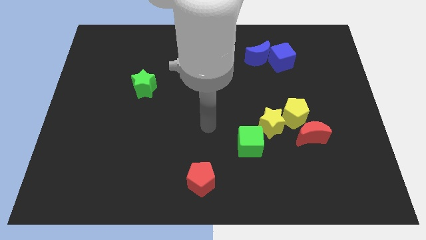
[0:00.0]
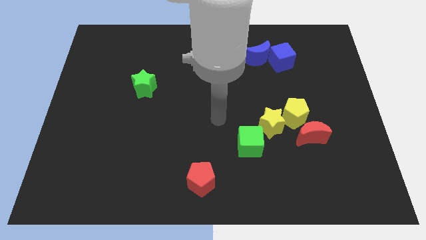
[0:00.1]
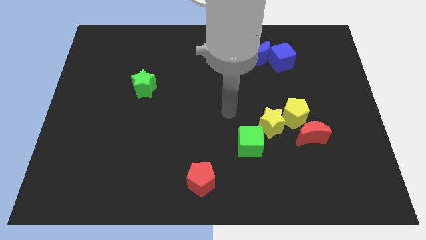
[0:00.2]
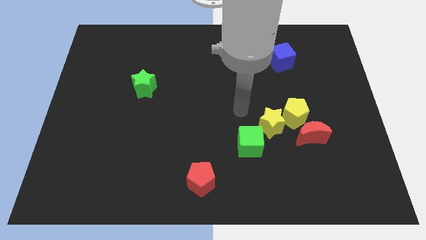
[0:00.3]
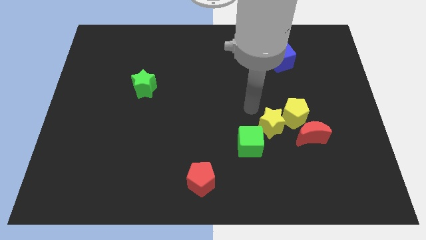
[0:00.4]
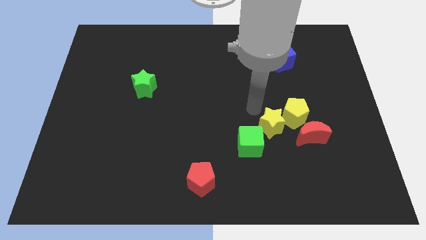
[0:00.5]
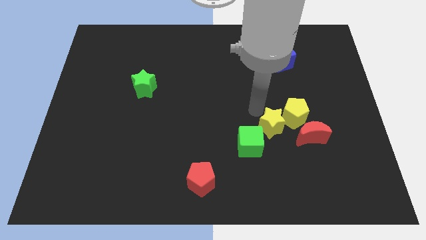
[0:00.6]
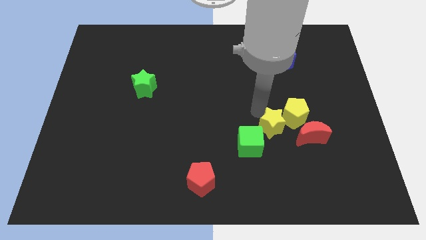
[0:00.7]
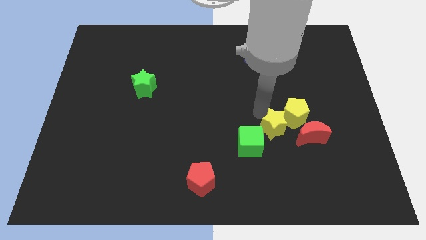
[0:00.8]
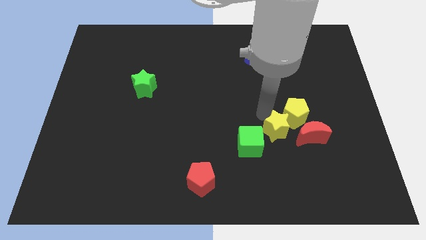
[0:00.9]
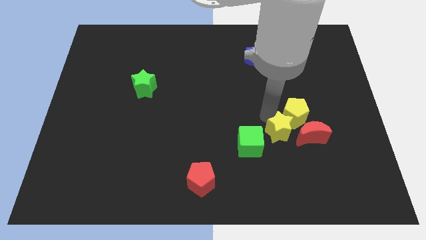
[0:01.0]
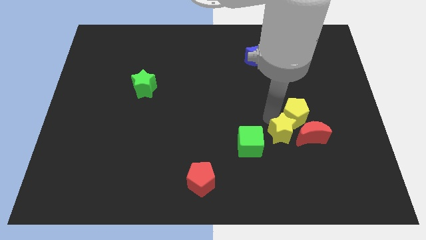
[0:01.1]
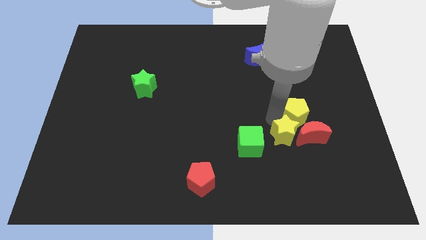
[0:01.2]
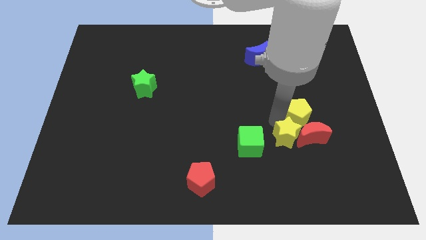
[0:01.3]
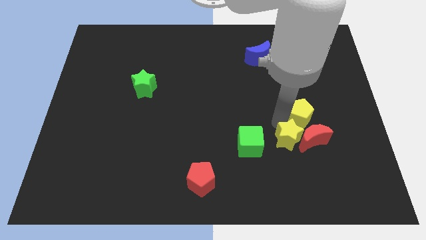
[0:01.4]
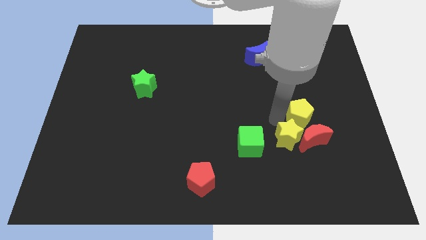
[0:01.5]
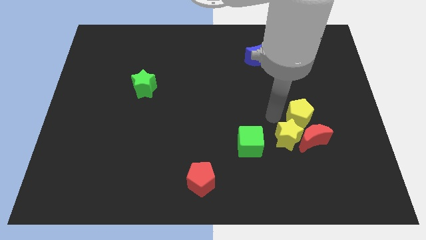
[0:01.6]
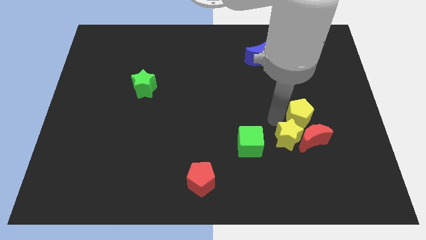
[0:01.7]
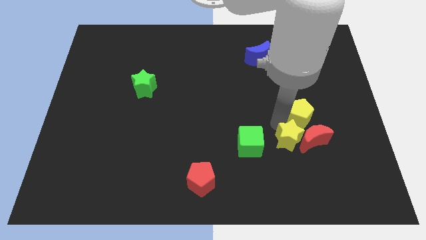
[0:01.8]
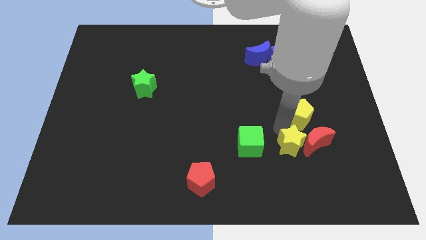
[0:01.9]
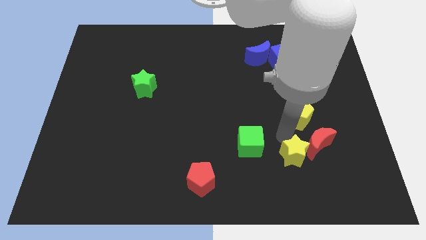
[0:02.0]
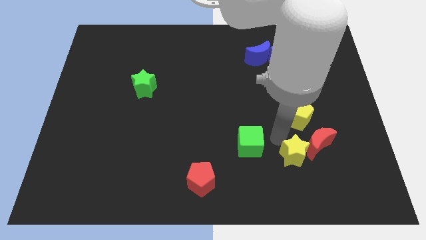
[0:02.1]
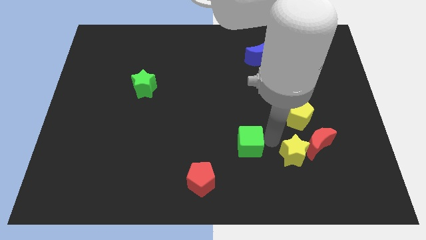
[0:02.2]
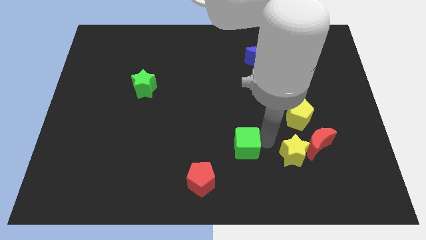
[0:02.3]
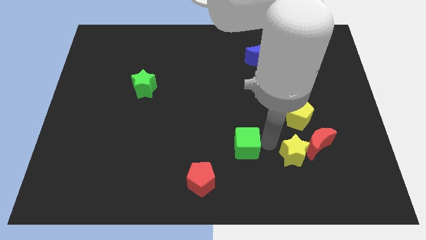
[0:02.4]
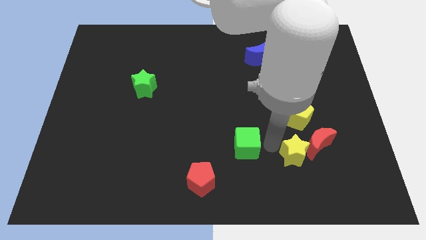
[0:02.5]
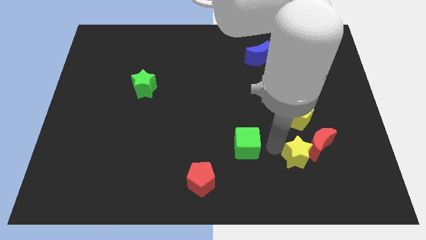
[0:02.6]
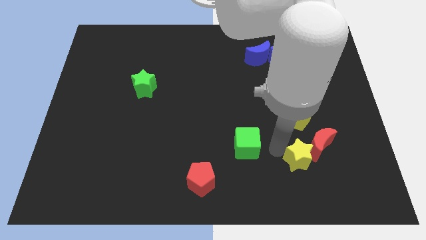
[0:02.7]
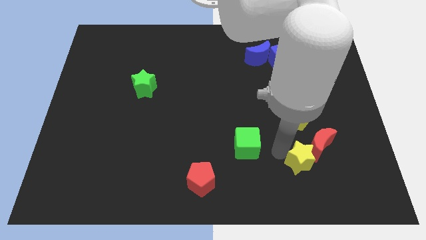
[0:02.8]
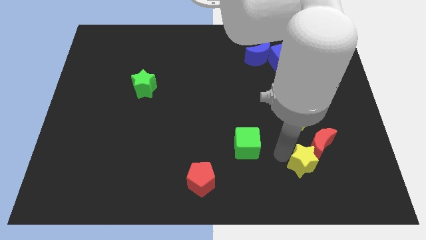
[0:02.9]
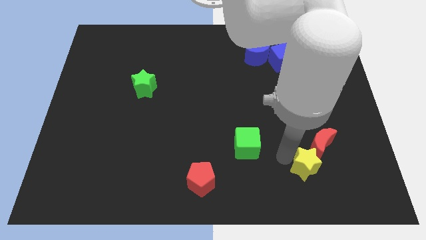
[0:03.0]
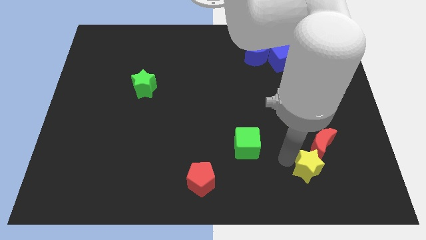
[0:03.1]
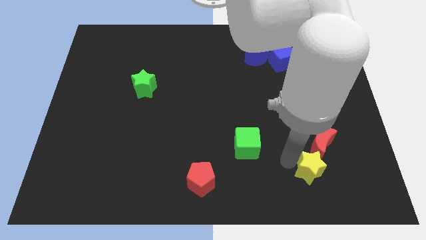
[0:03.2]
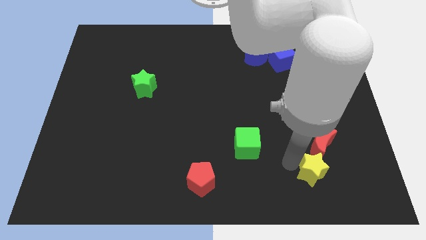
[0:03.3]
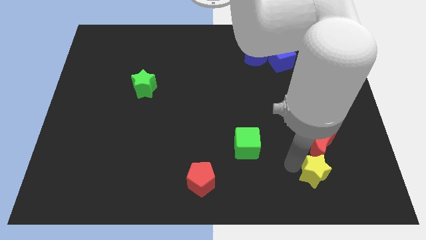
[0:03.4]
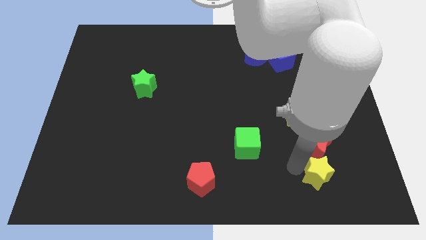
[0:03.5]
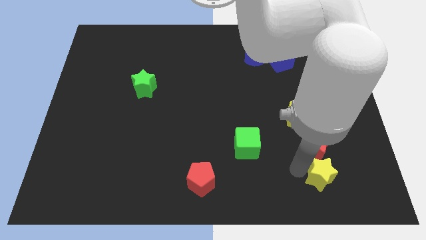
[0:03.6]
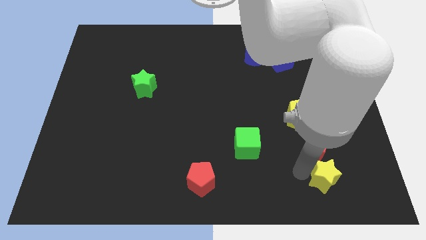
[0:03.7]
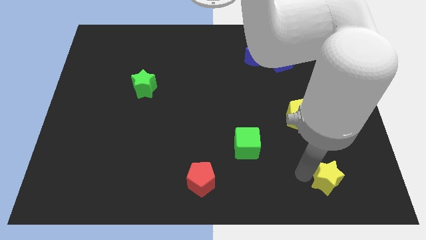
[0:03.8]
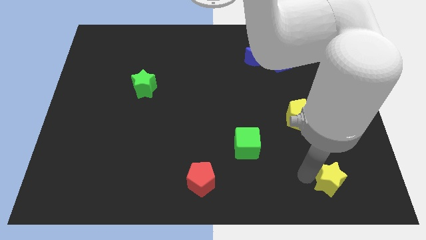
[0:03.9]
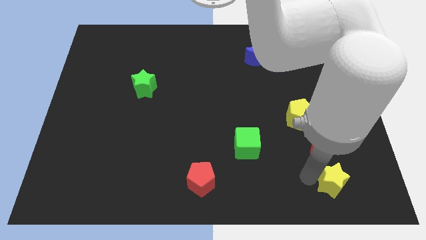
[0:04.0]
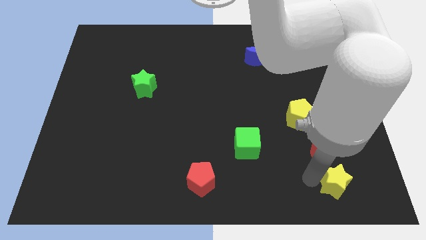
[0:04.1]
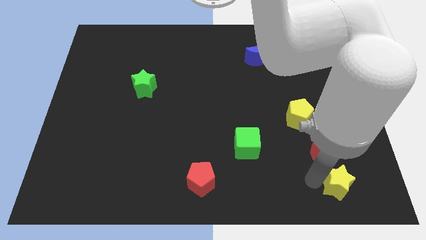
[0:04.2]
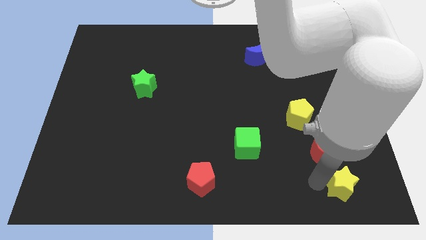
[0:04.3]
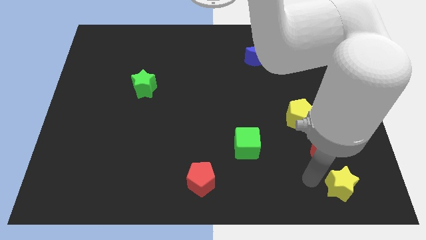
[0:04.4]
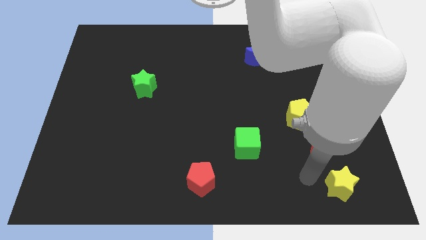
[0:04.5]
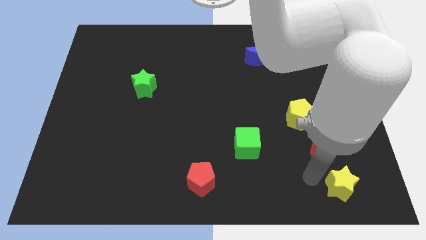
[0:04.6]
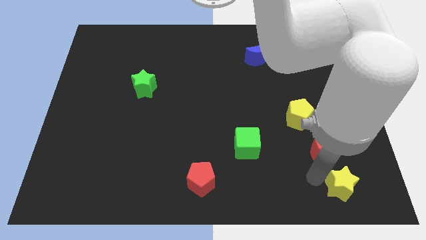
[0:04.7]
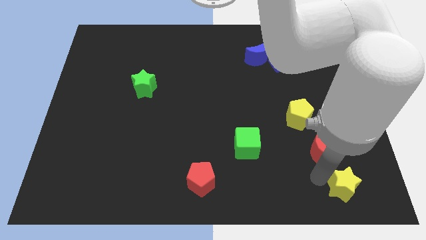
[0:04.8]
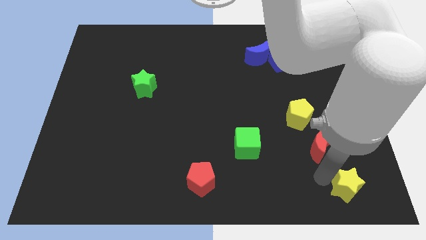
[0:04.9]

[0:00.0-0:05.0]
move the yellow star to the lower right corner

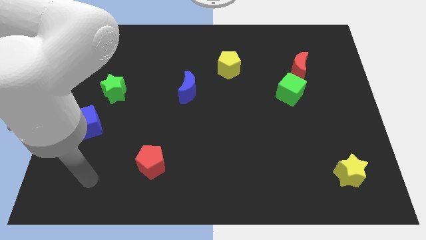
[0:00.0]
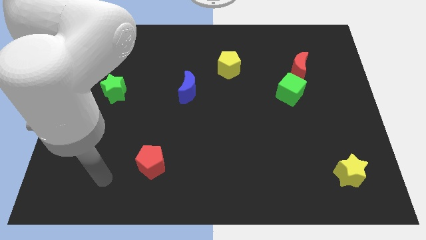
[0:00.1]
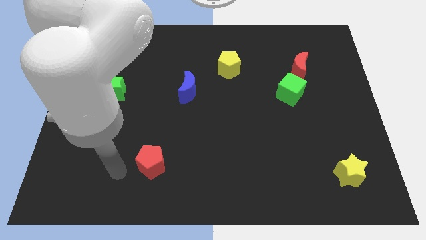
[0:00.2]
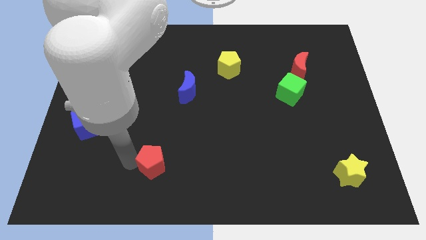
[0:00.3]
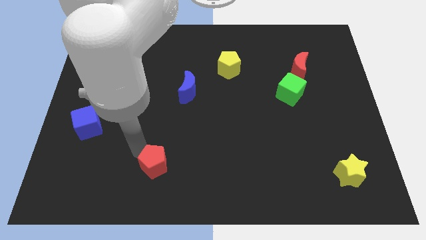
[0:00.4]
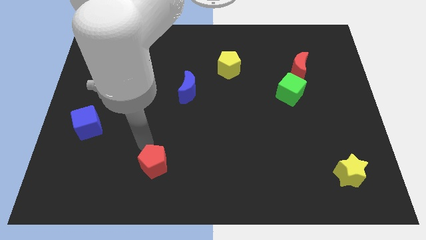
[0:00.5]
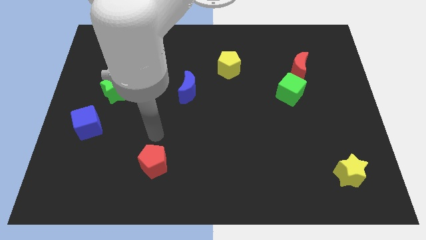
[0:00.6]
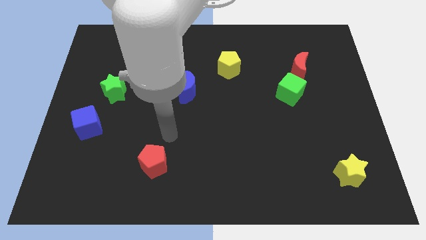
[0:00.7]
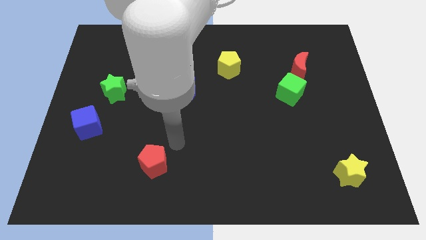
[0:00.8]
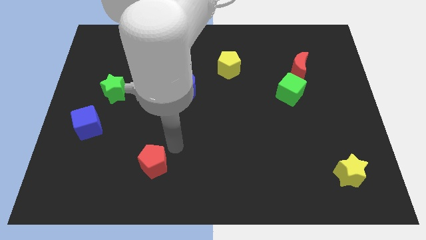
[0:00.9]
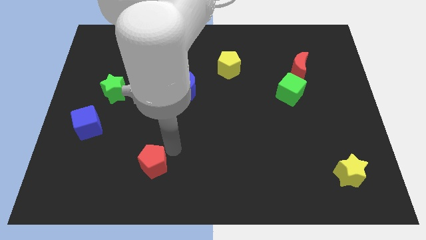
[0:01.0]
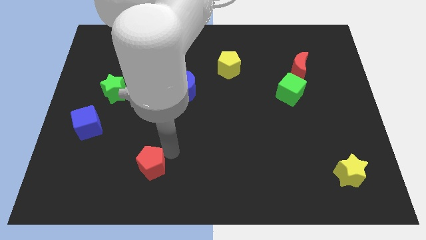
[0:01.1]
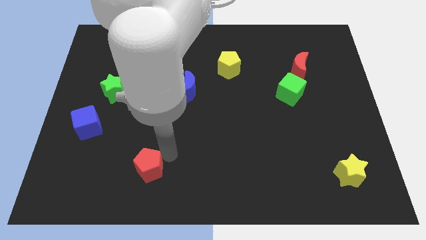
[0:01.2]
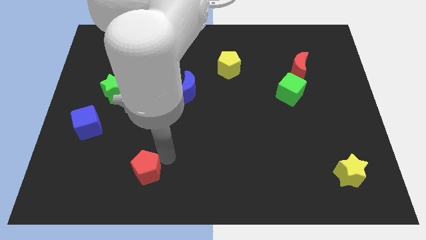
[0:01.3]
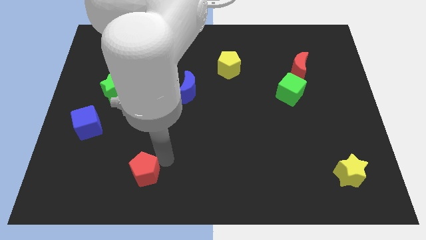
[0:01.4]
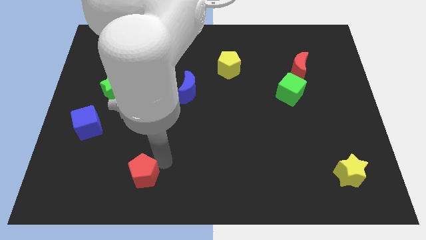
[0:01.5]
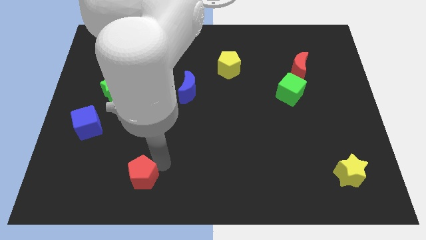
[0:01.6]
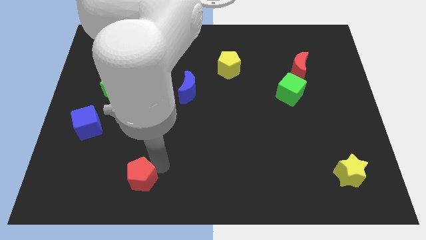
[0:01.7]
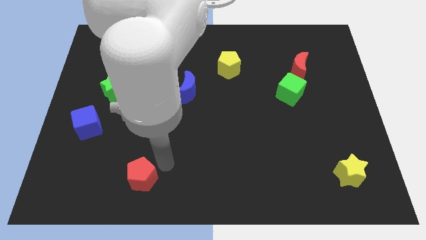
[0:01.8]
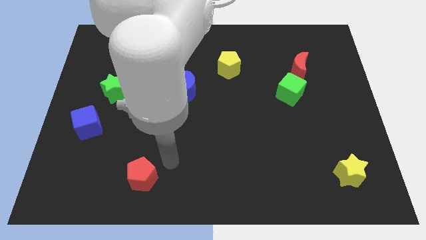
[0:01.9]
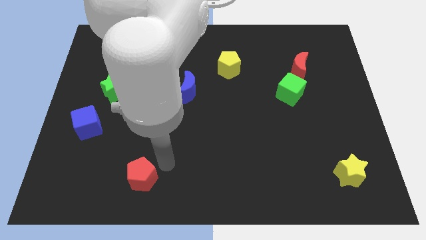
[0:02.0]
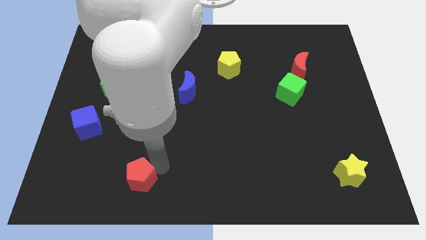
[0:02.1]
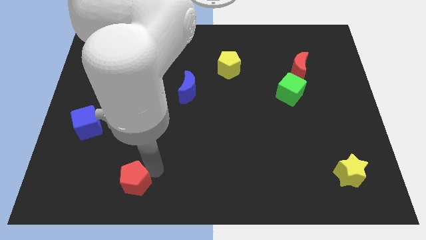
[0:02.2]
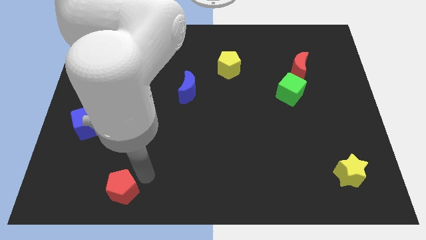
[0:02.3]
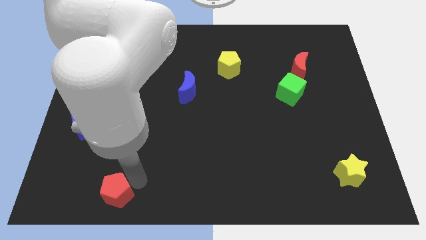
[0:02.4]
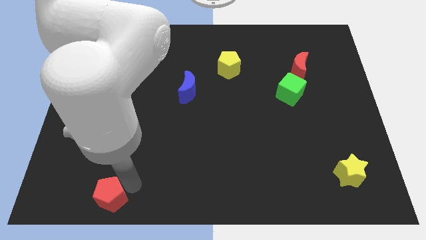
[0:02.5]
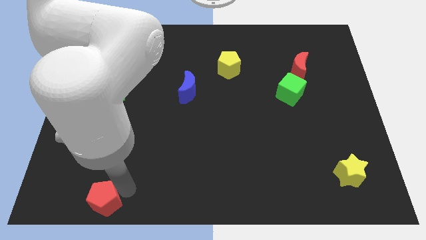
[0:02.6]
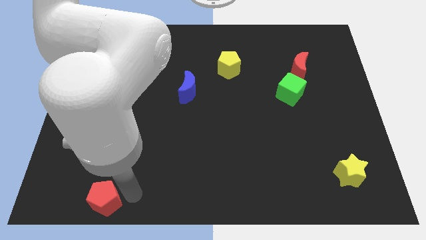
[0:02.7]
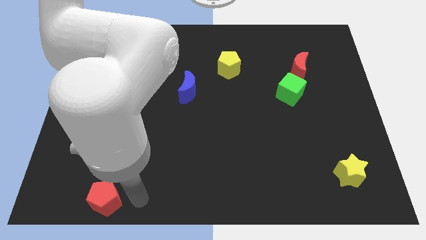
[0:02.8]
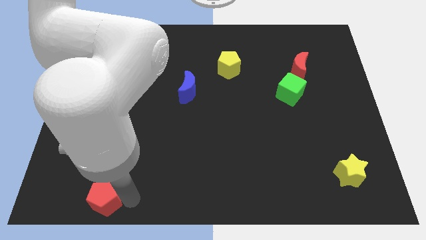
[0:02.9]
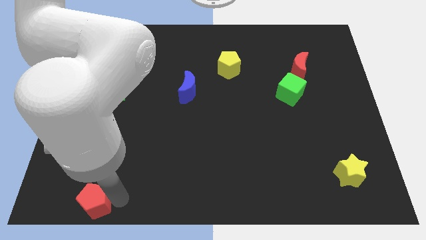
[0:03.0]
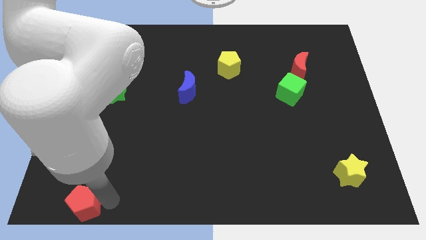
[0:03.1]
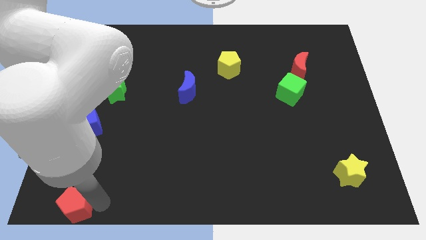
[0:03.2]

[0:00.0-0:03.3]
push the red pentagon to the bottom left of the board
